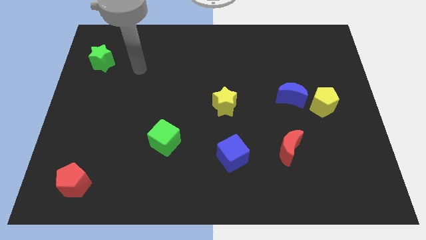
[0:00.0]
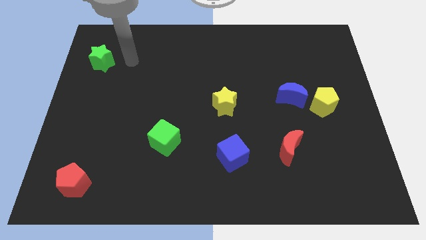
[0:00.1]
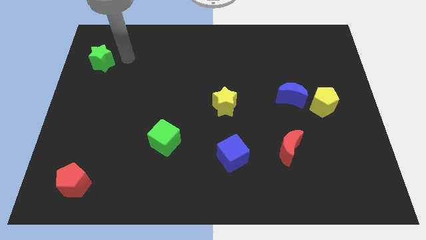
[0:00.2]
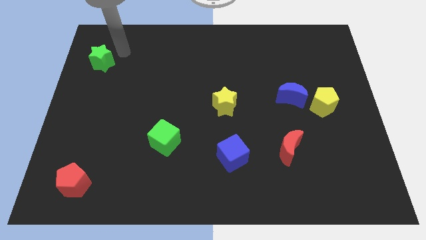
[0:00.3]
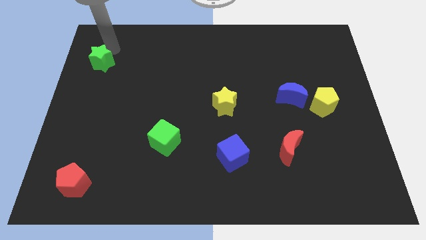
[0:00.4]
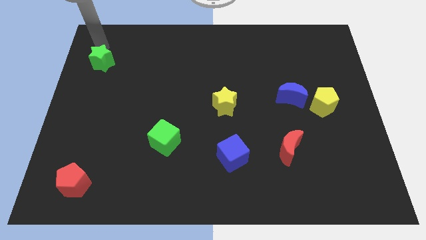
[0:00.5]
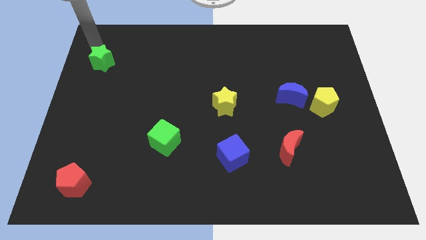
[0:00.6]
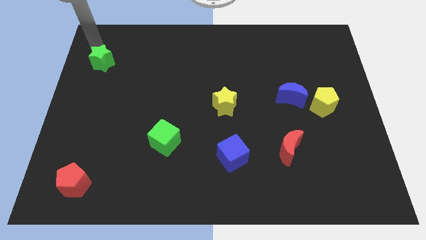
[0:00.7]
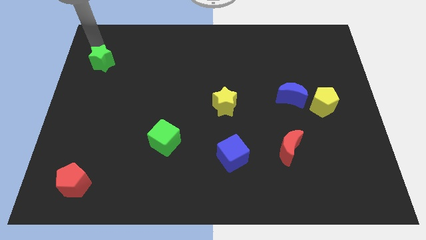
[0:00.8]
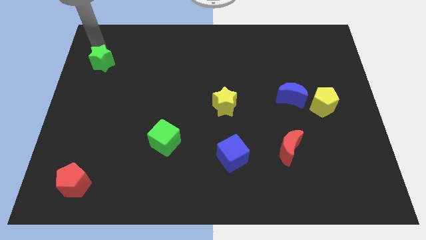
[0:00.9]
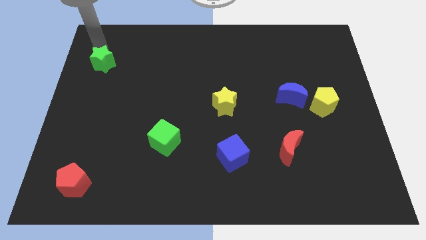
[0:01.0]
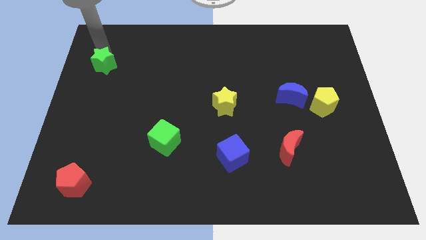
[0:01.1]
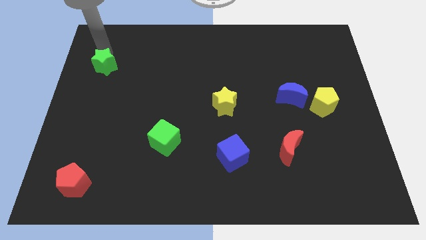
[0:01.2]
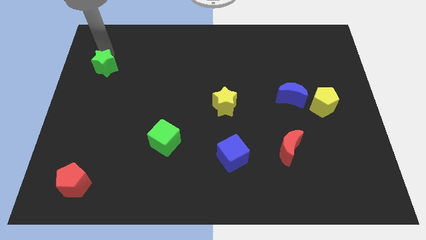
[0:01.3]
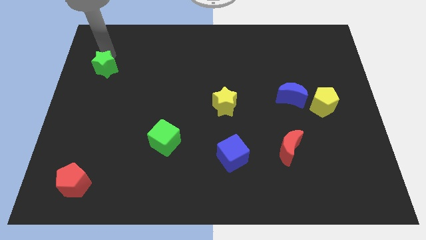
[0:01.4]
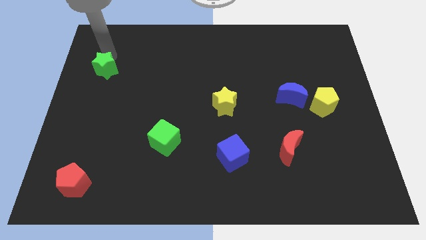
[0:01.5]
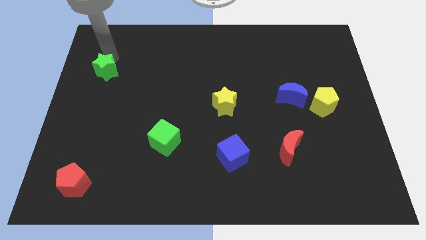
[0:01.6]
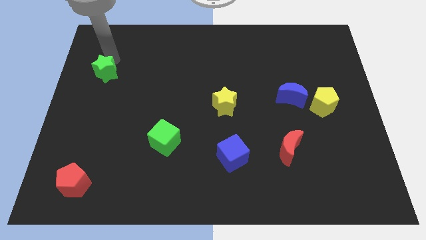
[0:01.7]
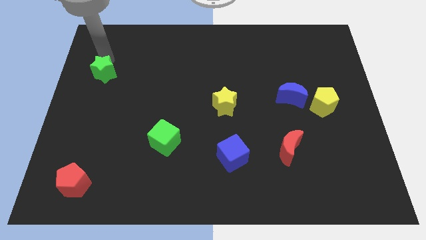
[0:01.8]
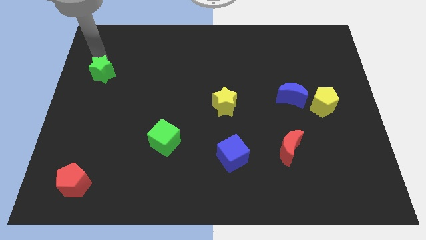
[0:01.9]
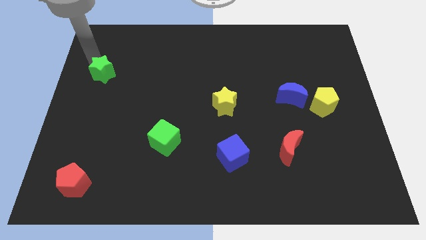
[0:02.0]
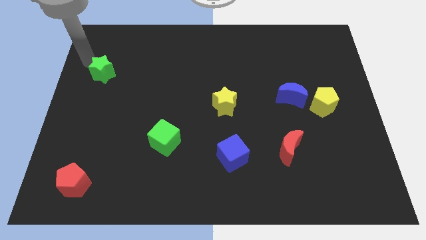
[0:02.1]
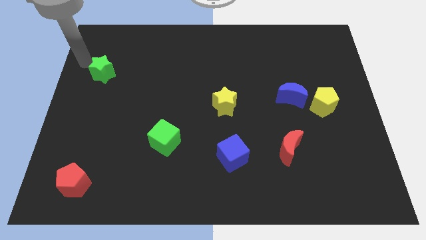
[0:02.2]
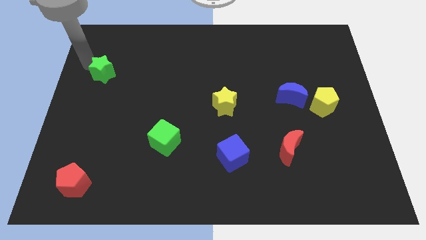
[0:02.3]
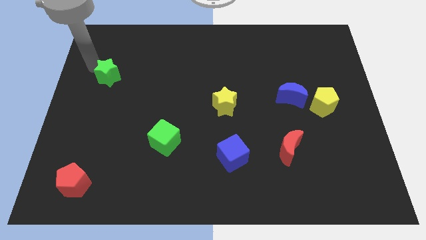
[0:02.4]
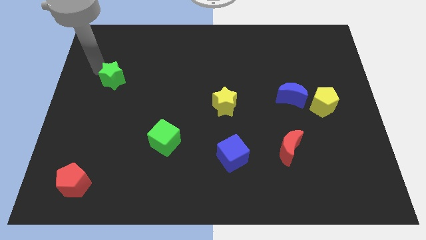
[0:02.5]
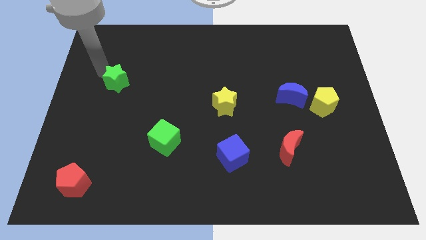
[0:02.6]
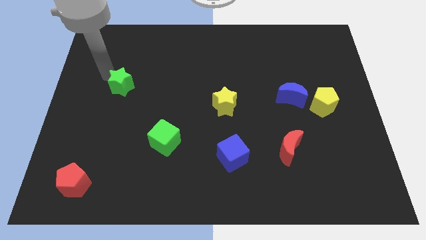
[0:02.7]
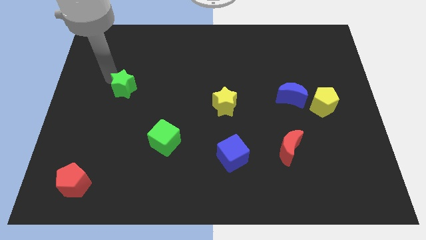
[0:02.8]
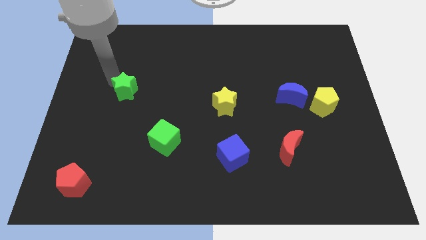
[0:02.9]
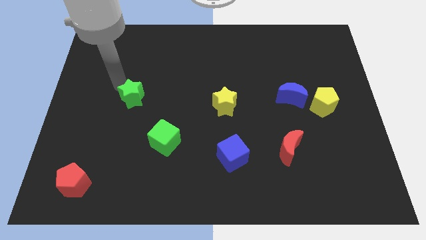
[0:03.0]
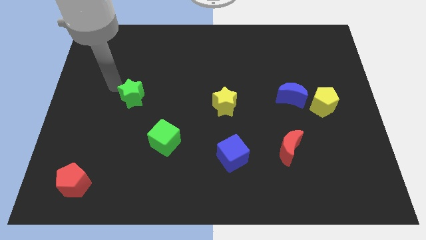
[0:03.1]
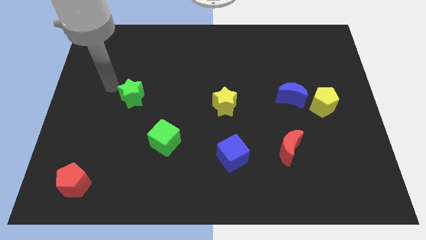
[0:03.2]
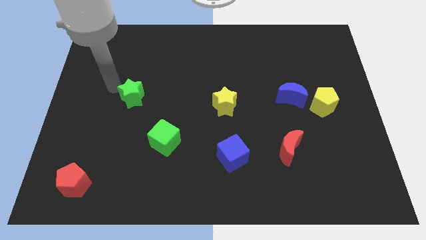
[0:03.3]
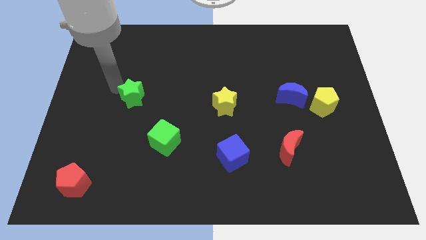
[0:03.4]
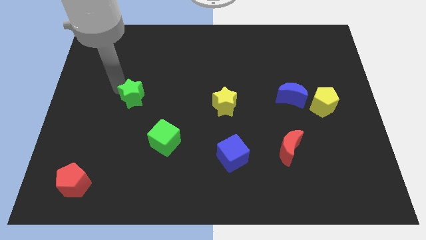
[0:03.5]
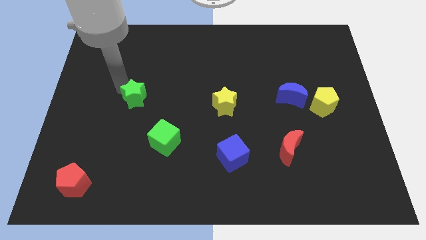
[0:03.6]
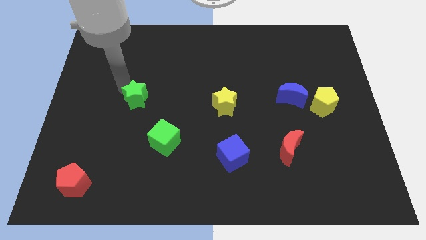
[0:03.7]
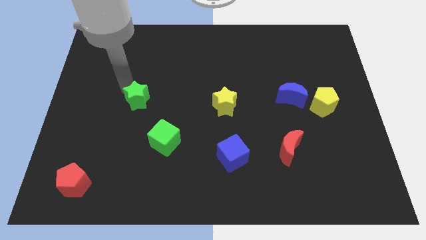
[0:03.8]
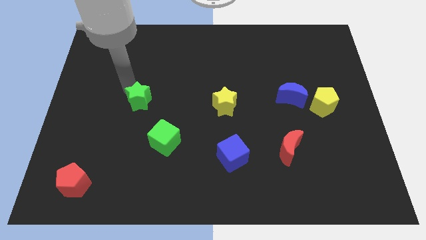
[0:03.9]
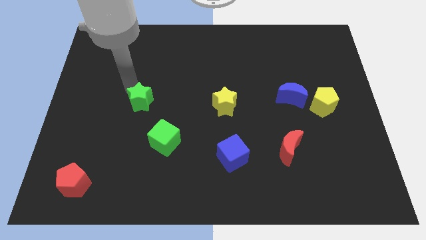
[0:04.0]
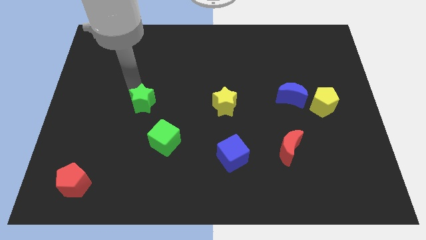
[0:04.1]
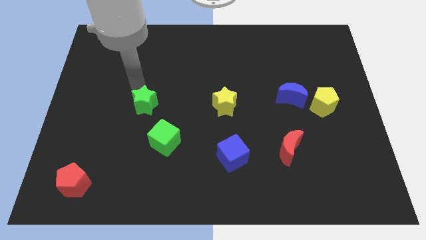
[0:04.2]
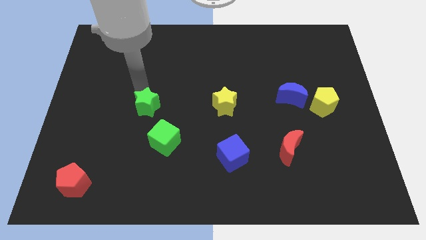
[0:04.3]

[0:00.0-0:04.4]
slide the green star downwards and to the right

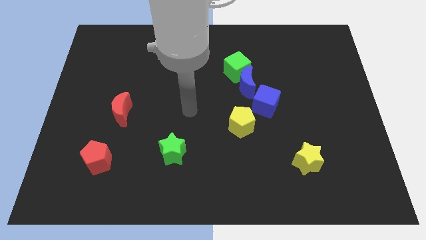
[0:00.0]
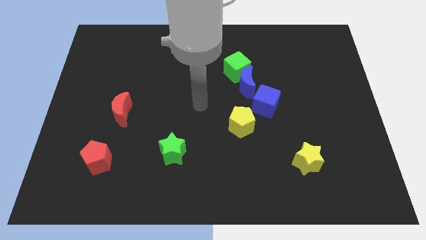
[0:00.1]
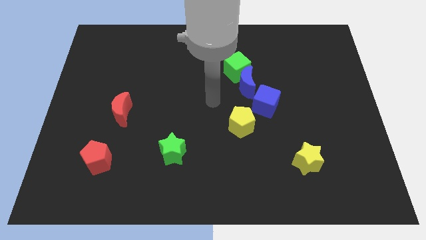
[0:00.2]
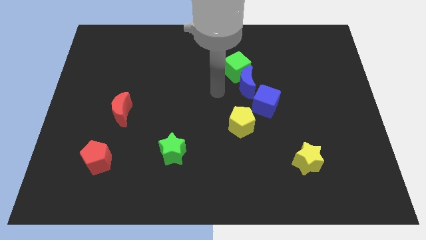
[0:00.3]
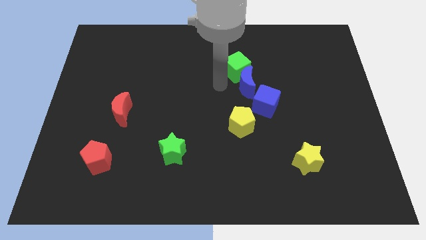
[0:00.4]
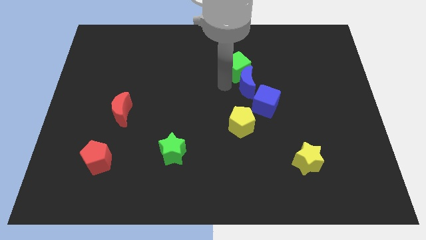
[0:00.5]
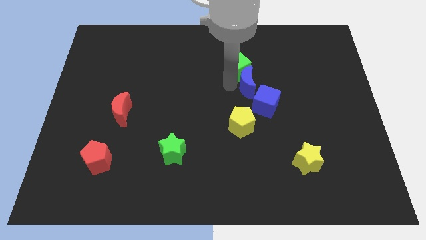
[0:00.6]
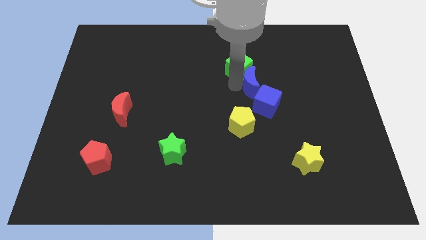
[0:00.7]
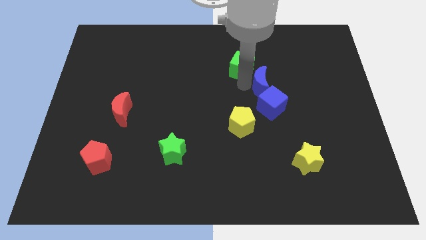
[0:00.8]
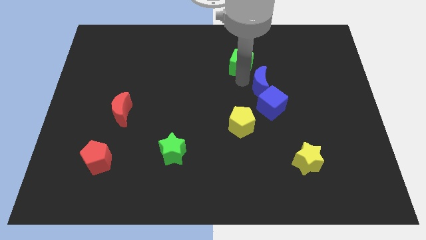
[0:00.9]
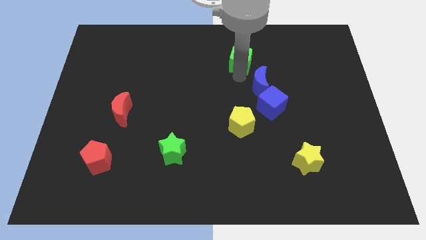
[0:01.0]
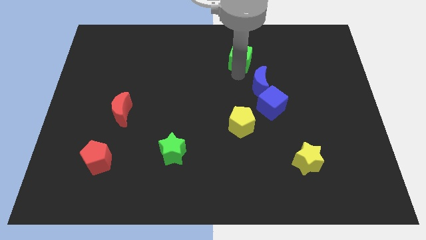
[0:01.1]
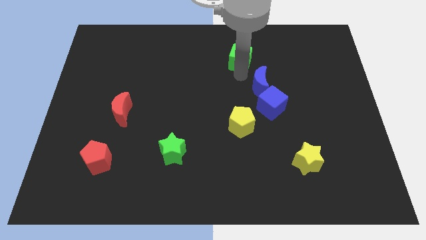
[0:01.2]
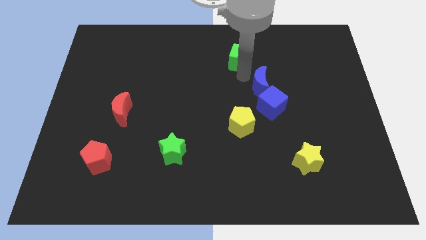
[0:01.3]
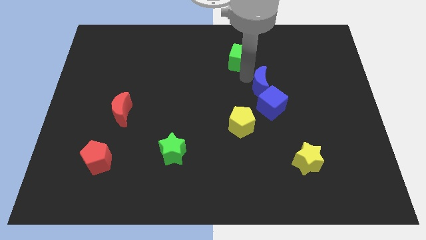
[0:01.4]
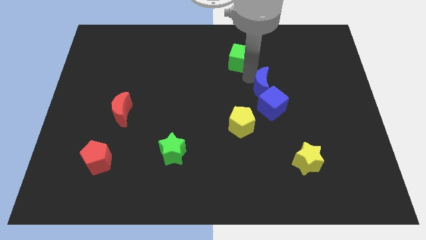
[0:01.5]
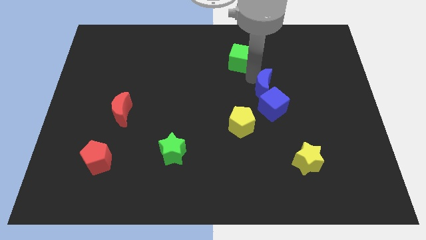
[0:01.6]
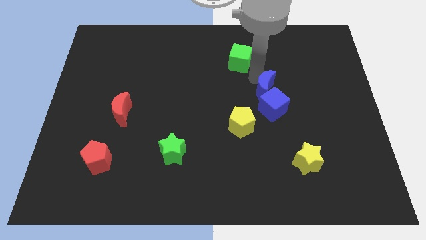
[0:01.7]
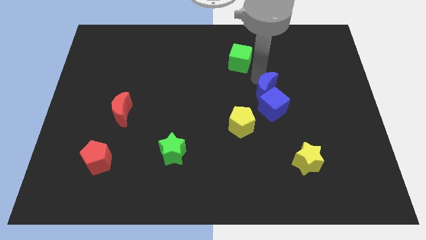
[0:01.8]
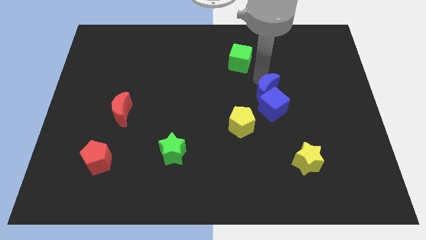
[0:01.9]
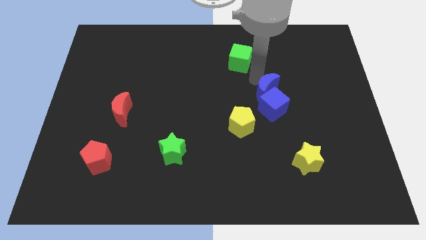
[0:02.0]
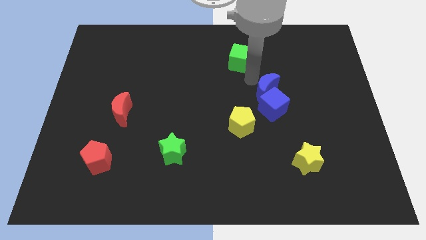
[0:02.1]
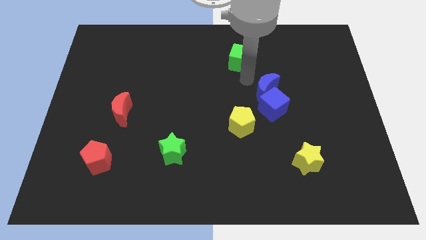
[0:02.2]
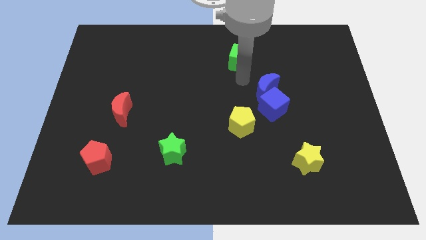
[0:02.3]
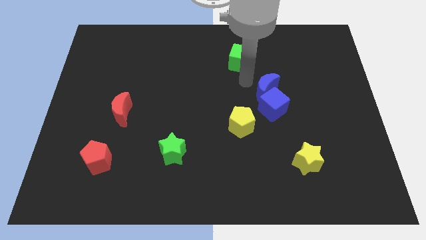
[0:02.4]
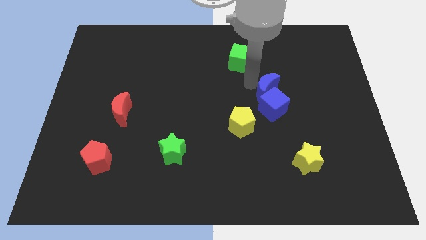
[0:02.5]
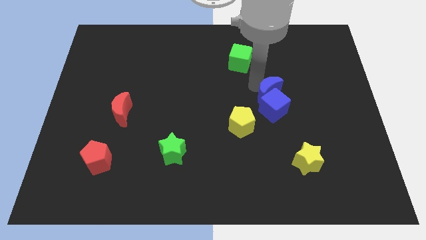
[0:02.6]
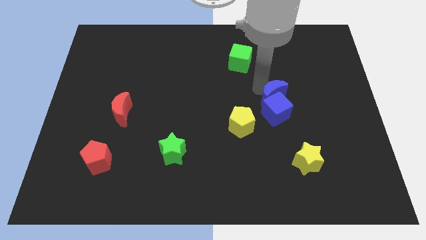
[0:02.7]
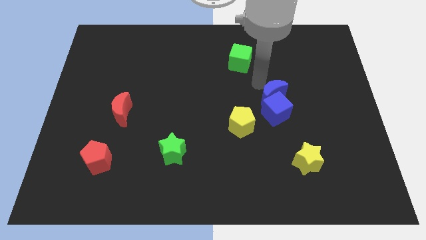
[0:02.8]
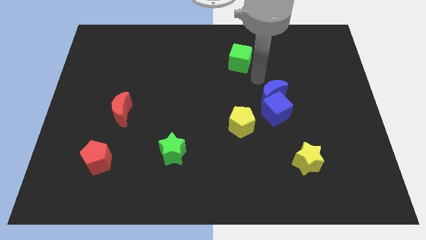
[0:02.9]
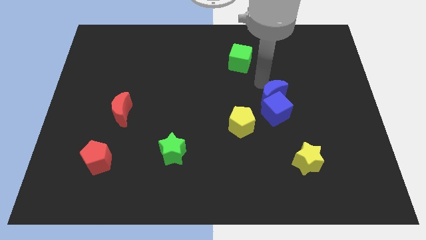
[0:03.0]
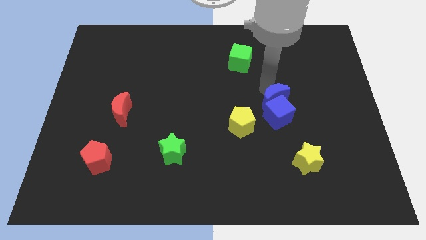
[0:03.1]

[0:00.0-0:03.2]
move the blue moon somewhat down and right diagonally

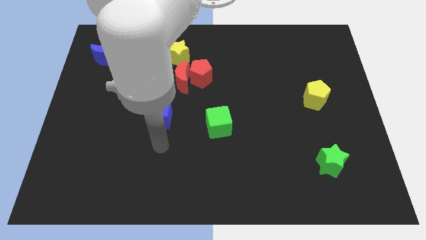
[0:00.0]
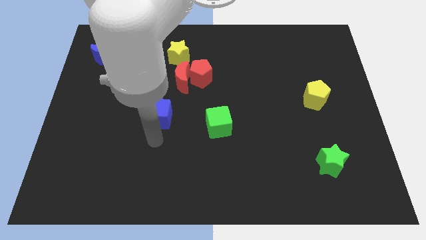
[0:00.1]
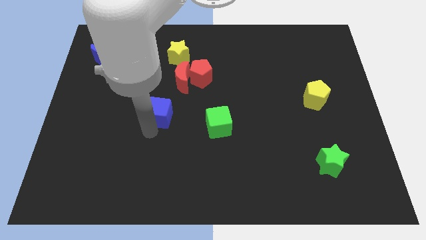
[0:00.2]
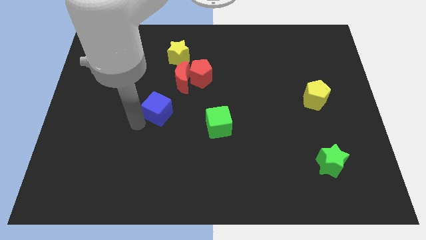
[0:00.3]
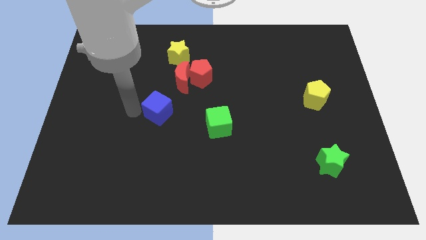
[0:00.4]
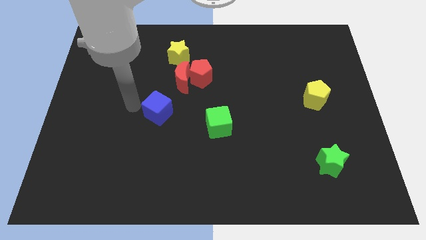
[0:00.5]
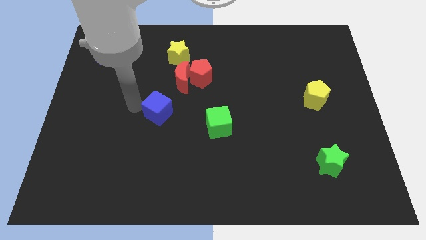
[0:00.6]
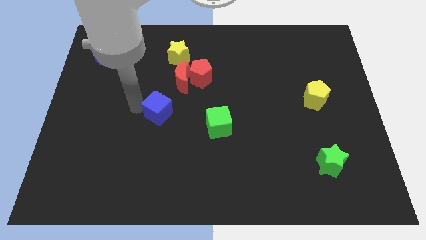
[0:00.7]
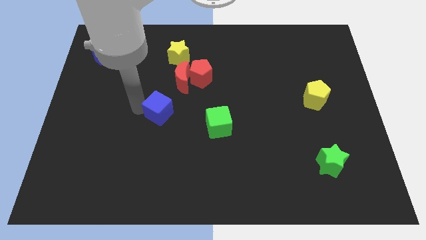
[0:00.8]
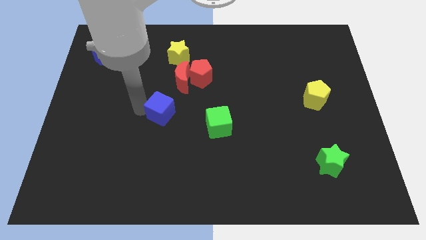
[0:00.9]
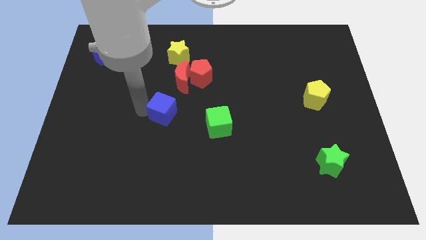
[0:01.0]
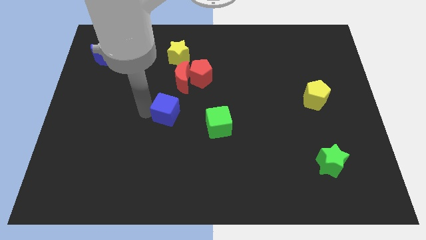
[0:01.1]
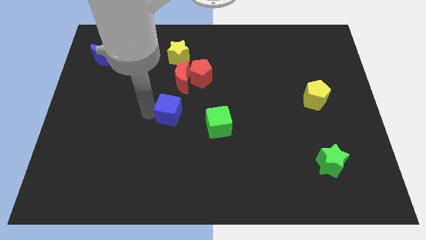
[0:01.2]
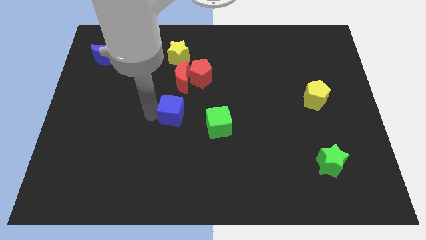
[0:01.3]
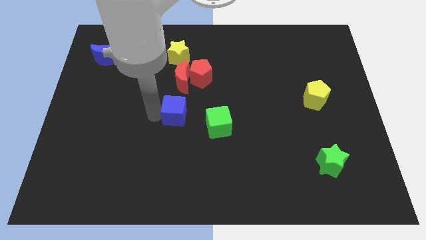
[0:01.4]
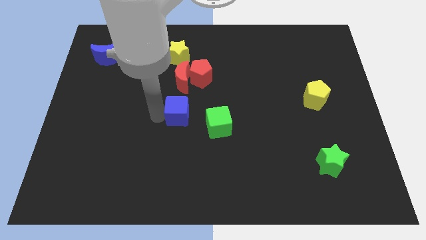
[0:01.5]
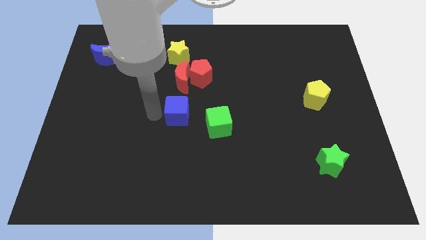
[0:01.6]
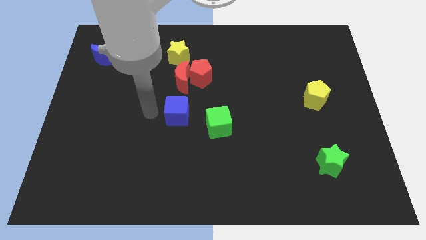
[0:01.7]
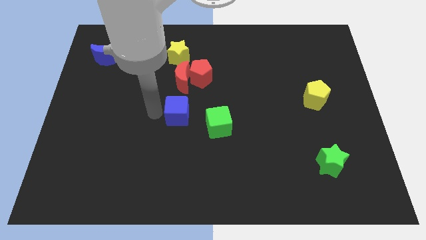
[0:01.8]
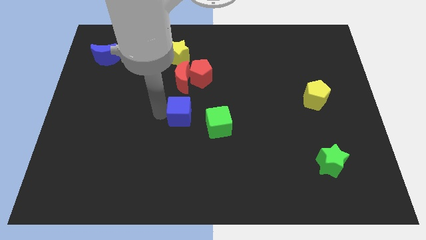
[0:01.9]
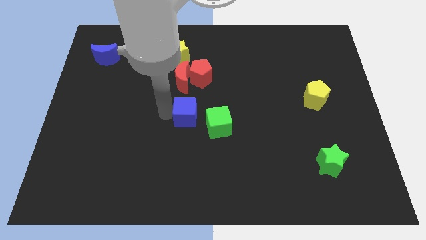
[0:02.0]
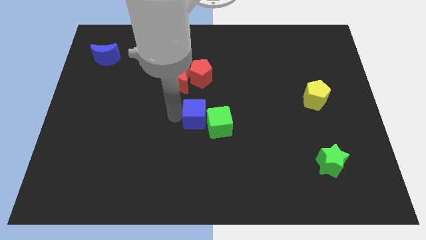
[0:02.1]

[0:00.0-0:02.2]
slightly slide the blue cube to the right
